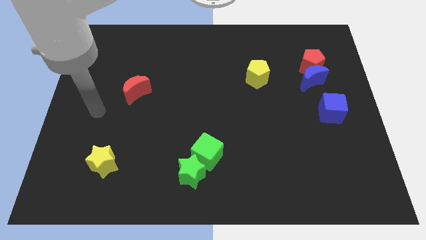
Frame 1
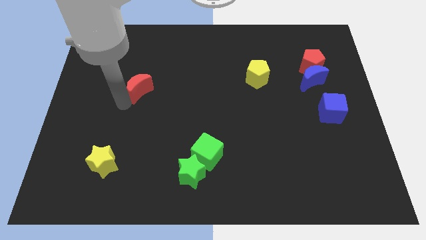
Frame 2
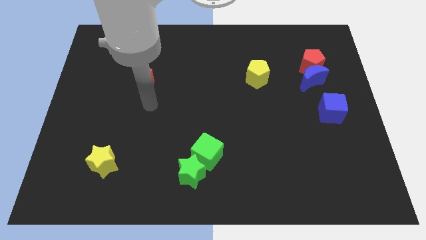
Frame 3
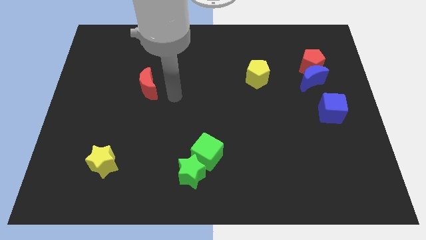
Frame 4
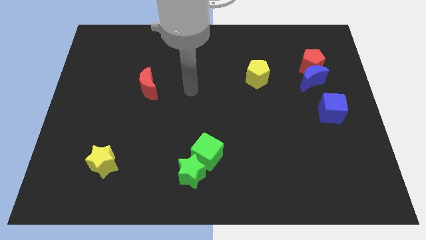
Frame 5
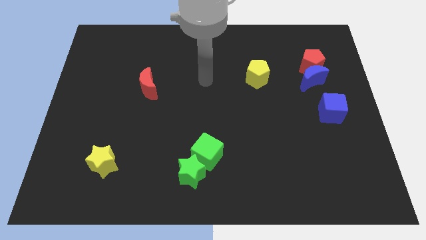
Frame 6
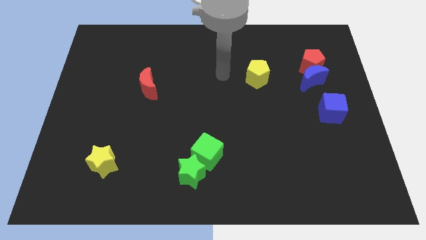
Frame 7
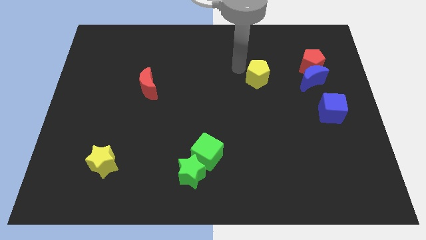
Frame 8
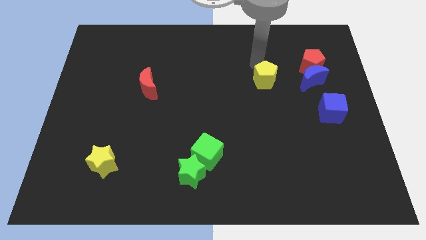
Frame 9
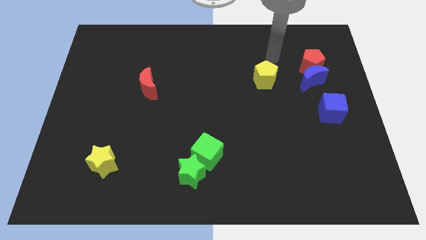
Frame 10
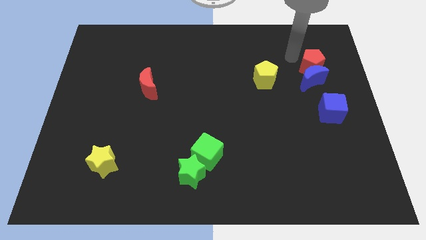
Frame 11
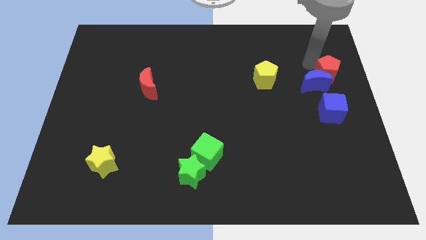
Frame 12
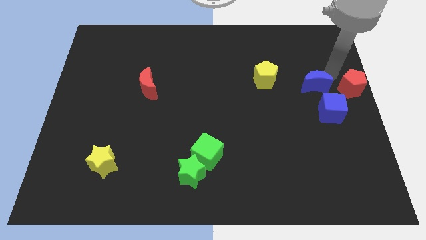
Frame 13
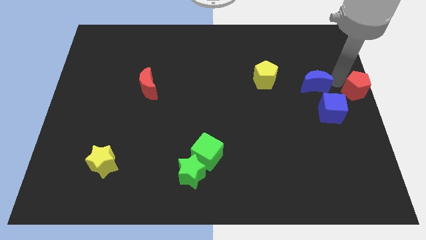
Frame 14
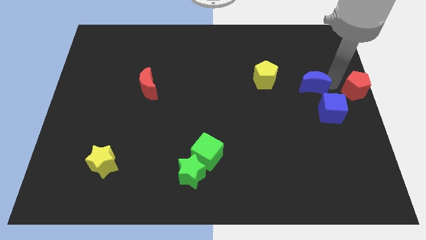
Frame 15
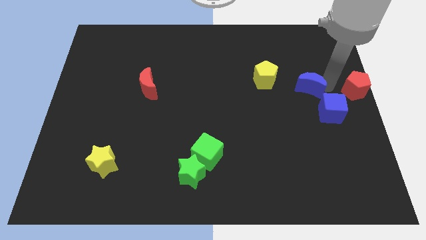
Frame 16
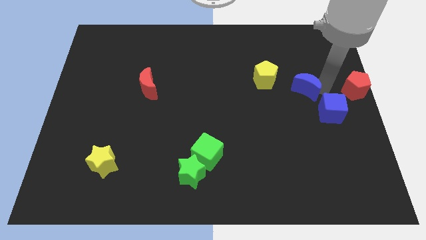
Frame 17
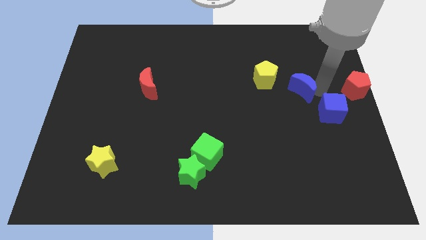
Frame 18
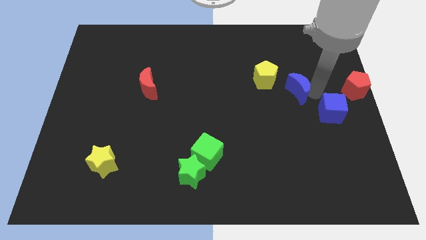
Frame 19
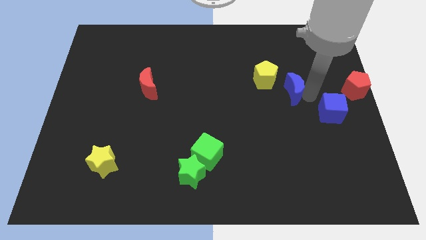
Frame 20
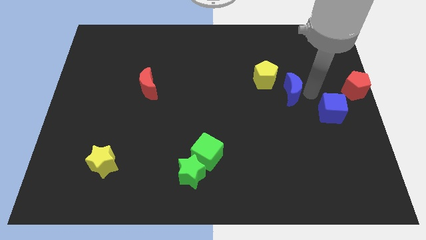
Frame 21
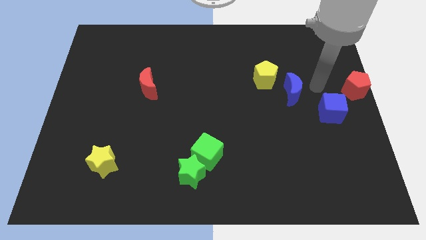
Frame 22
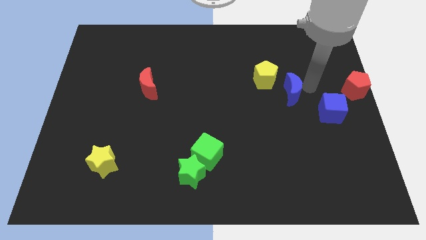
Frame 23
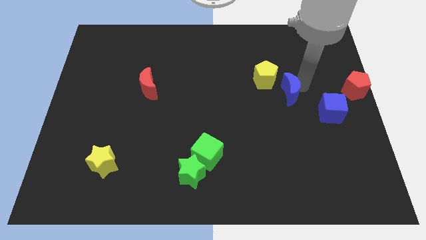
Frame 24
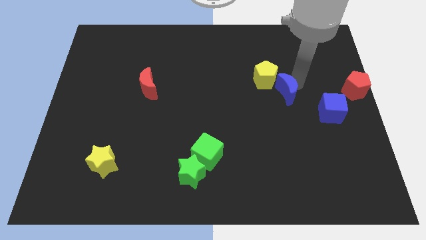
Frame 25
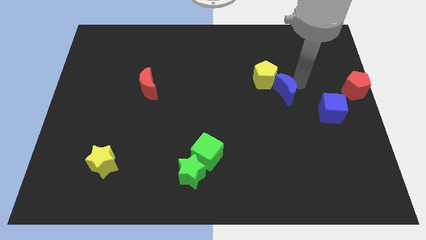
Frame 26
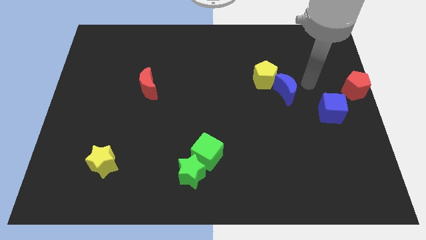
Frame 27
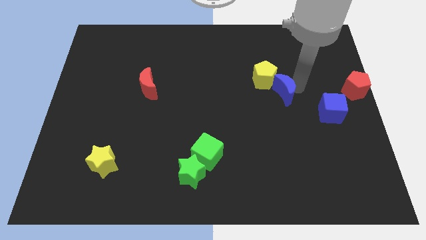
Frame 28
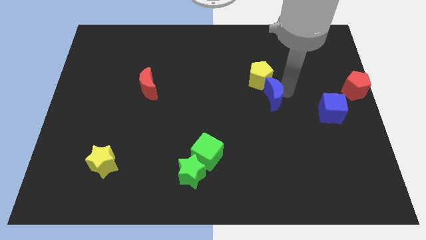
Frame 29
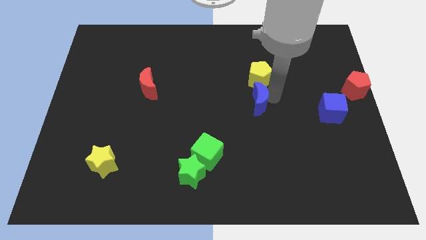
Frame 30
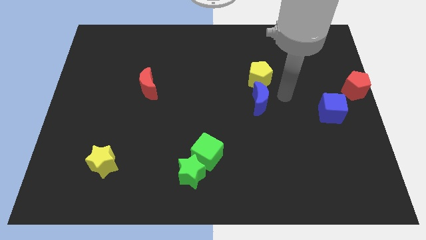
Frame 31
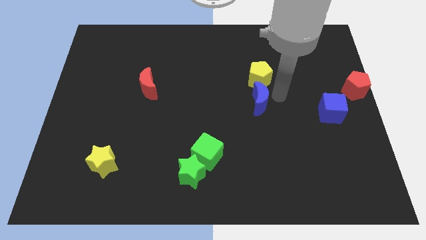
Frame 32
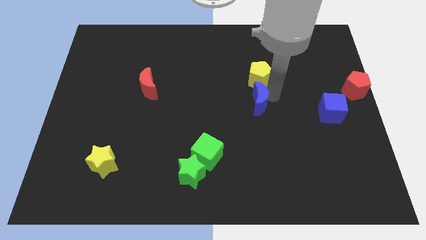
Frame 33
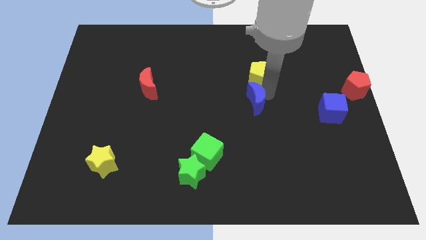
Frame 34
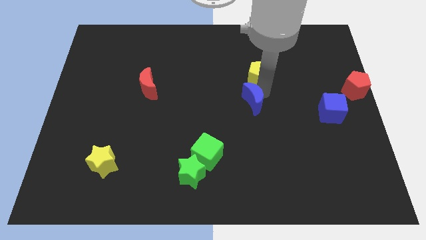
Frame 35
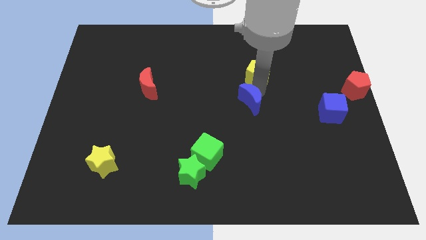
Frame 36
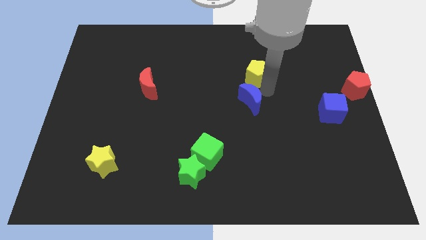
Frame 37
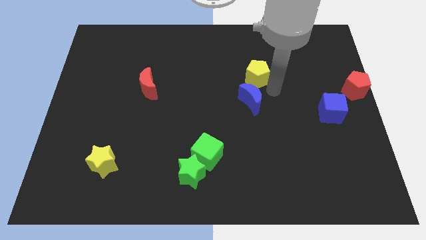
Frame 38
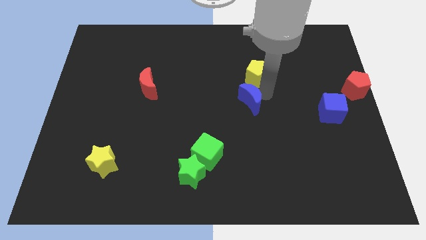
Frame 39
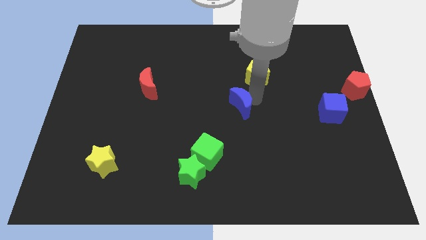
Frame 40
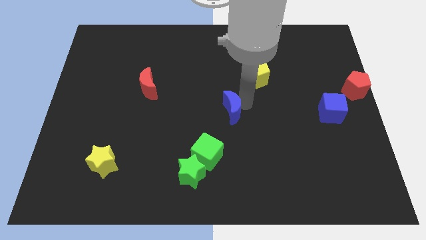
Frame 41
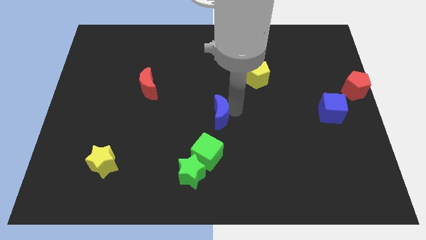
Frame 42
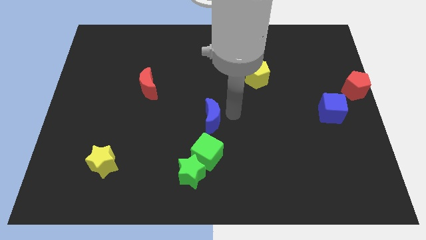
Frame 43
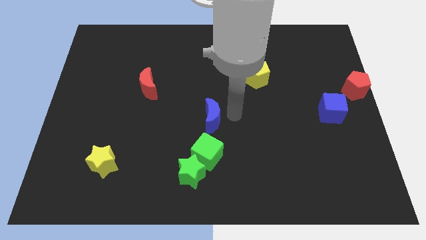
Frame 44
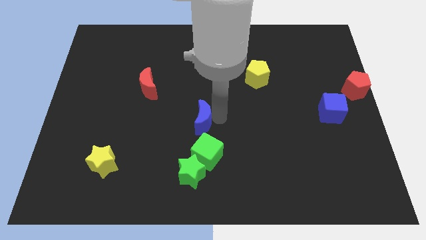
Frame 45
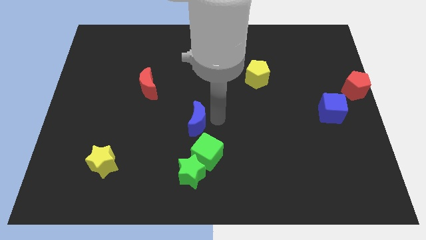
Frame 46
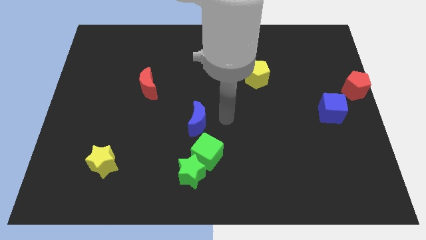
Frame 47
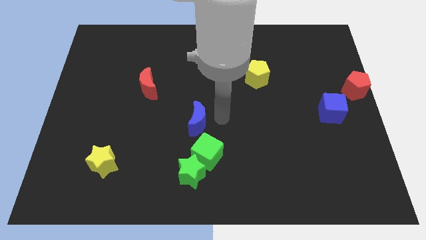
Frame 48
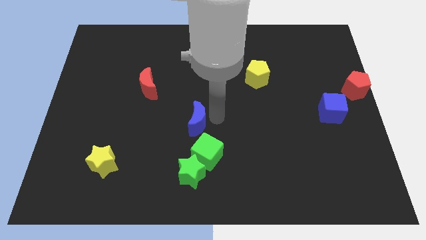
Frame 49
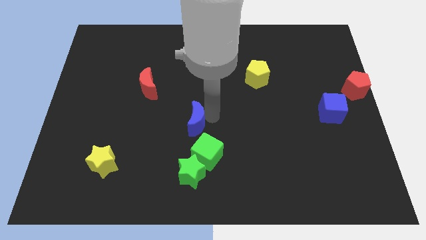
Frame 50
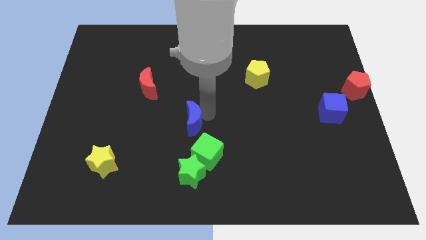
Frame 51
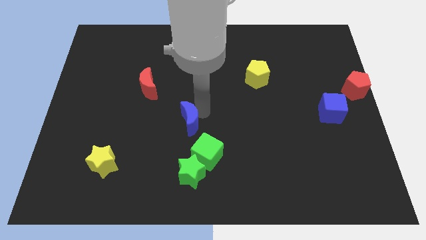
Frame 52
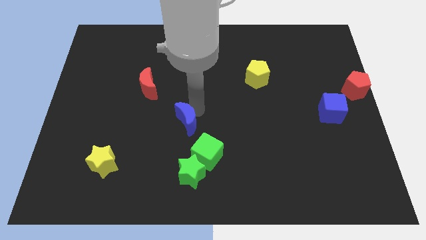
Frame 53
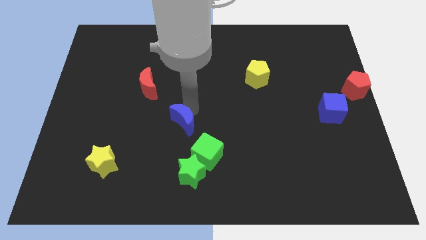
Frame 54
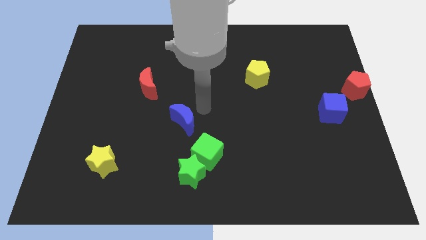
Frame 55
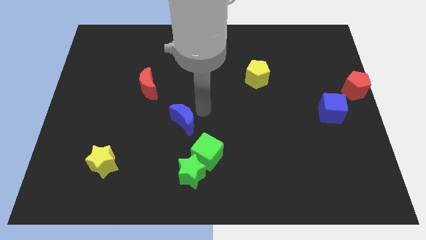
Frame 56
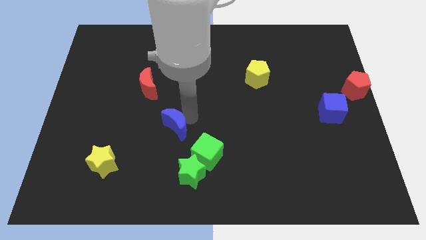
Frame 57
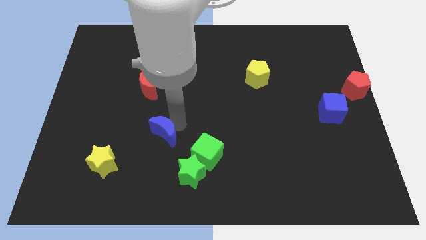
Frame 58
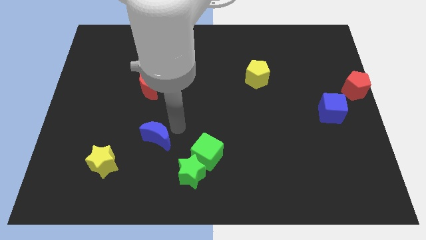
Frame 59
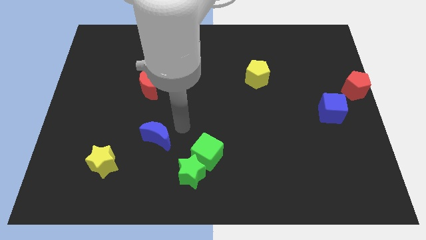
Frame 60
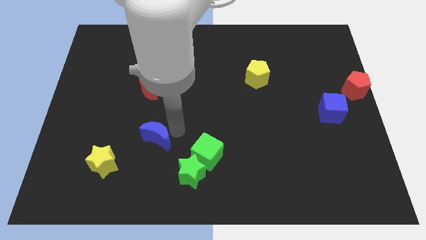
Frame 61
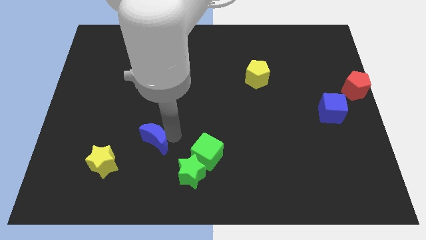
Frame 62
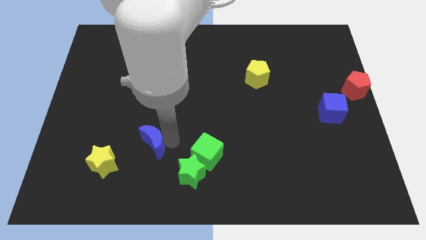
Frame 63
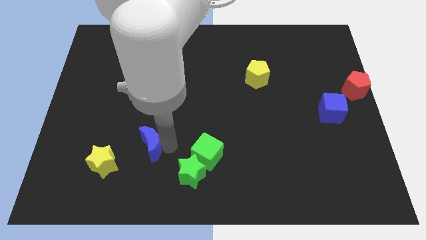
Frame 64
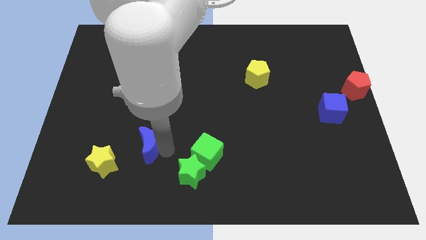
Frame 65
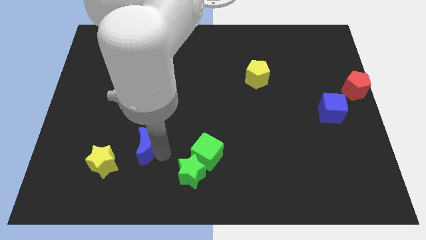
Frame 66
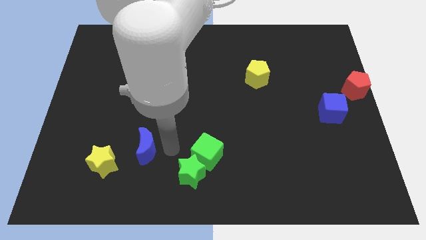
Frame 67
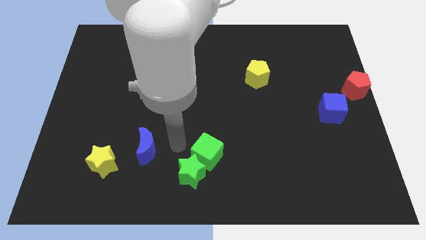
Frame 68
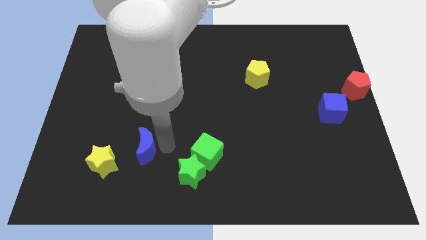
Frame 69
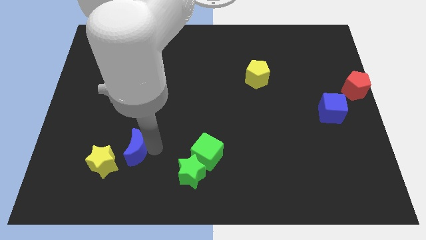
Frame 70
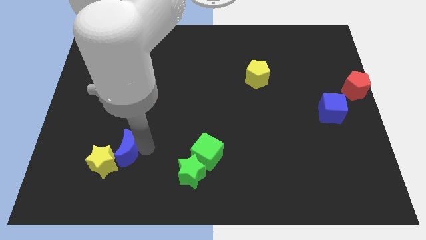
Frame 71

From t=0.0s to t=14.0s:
put the blue moon next to the yellow star

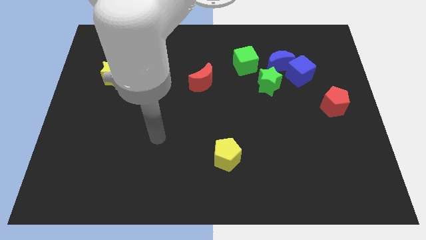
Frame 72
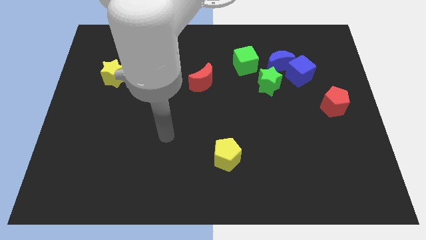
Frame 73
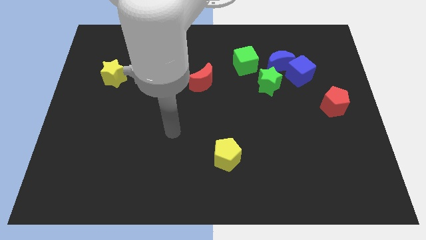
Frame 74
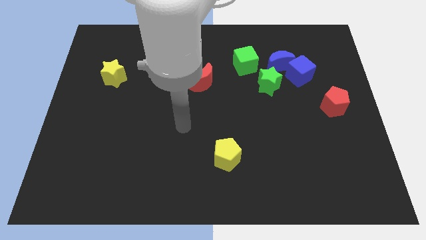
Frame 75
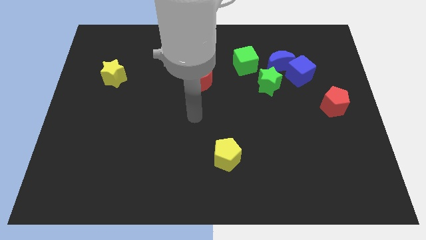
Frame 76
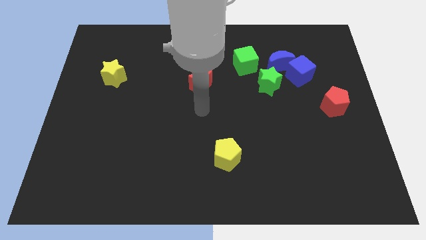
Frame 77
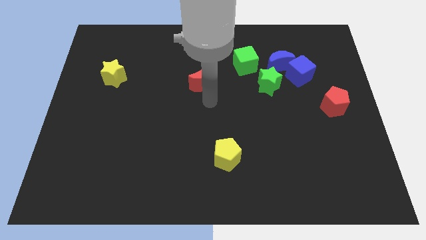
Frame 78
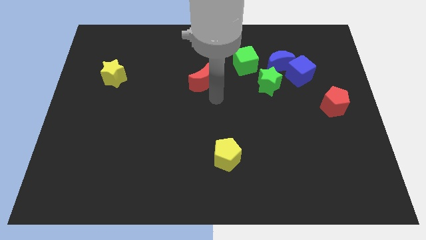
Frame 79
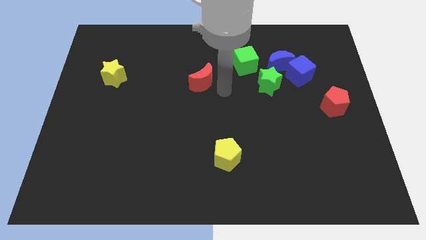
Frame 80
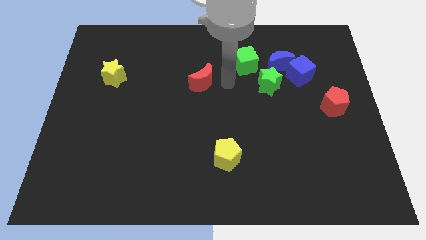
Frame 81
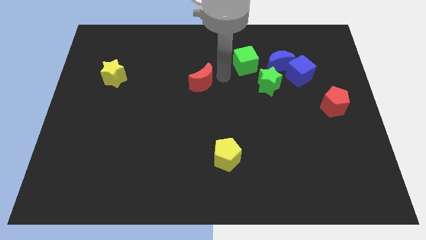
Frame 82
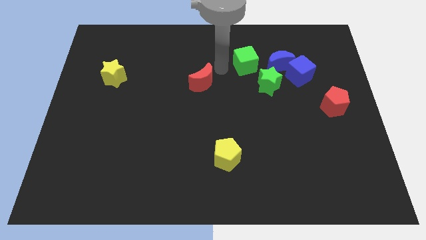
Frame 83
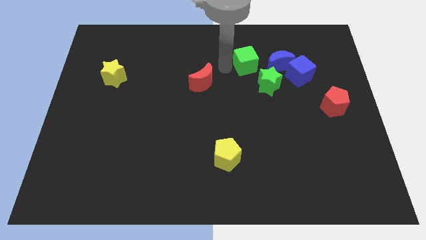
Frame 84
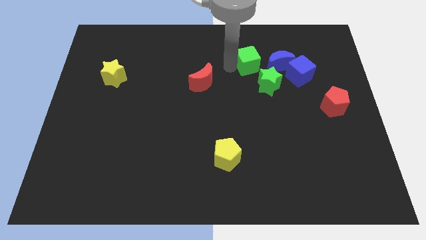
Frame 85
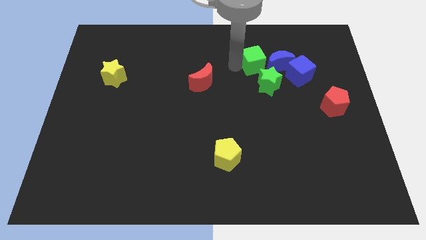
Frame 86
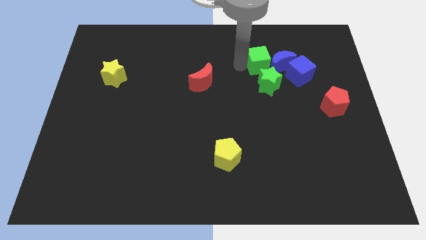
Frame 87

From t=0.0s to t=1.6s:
put the green cube close to the blue moon
